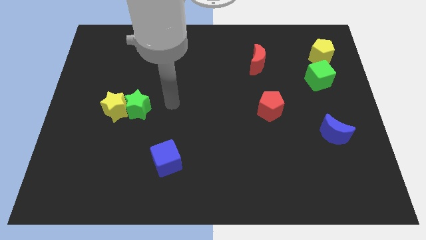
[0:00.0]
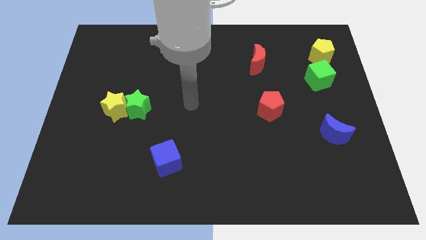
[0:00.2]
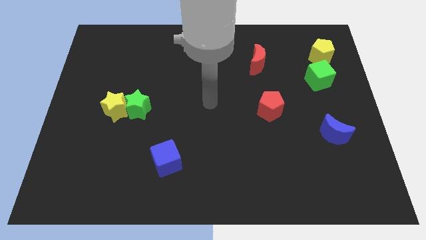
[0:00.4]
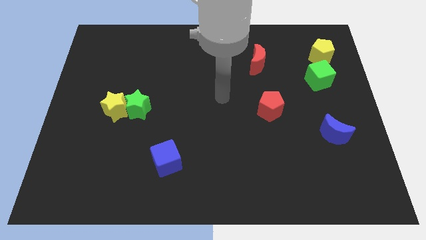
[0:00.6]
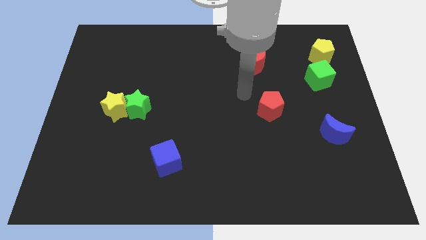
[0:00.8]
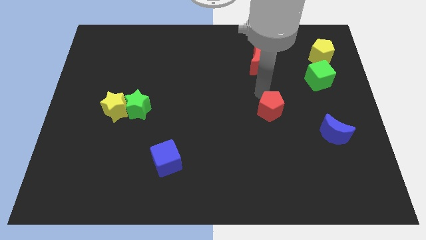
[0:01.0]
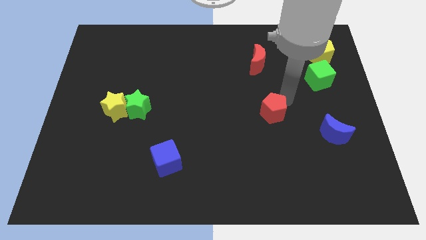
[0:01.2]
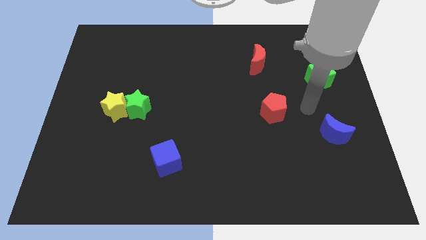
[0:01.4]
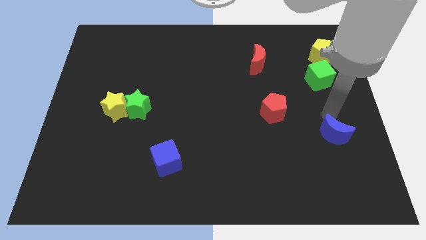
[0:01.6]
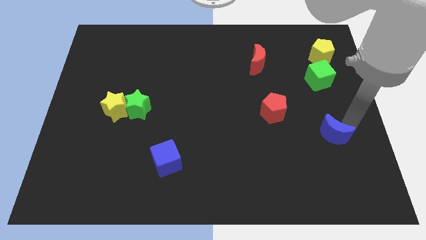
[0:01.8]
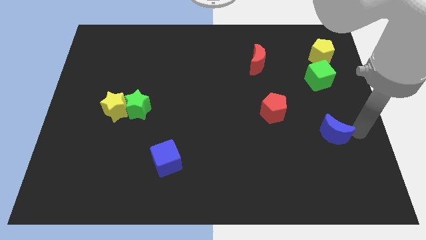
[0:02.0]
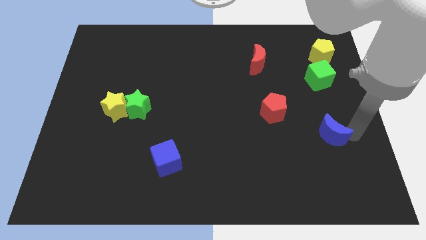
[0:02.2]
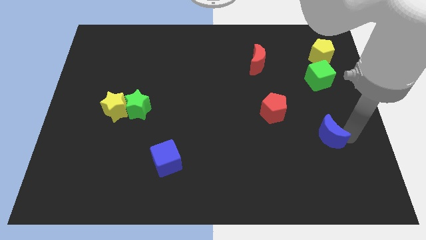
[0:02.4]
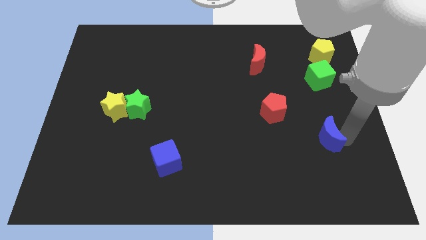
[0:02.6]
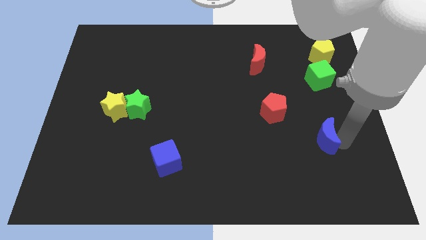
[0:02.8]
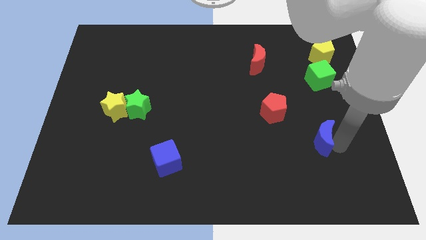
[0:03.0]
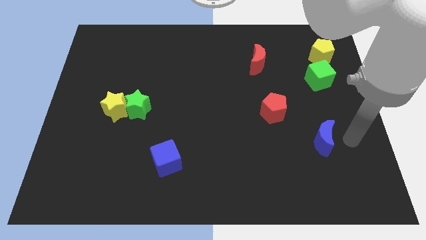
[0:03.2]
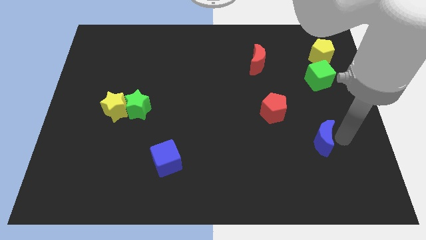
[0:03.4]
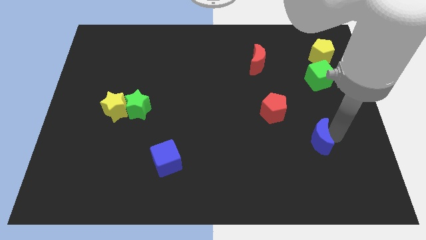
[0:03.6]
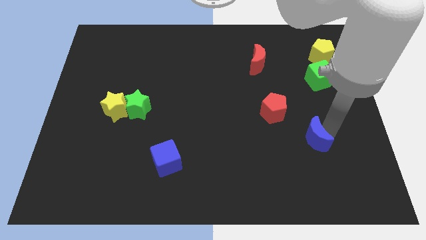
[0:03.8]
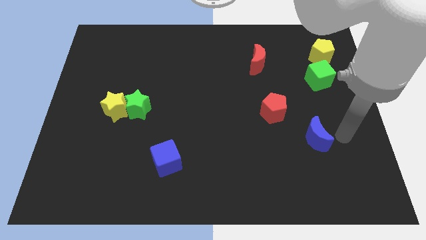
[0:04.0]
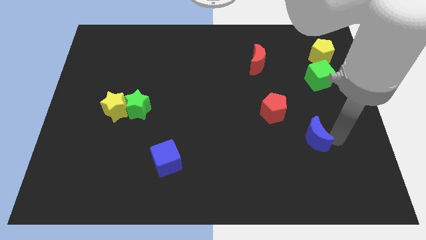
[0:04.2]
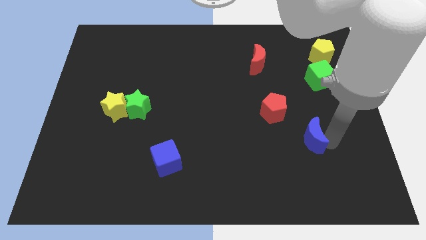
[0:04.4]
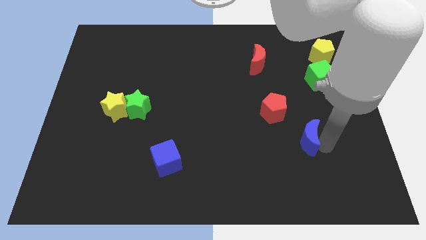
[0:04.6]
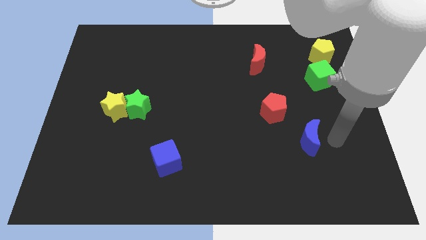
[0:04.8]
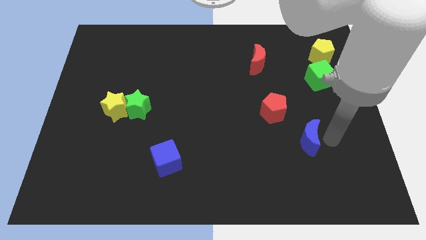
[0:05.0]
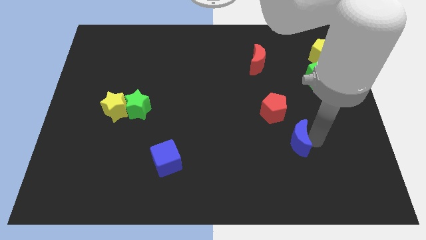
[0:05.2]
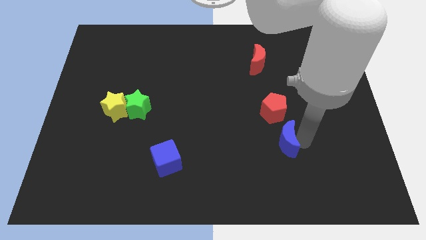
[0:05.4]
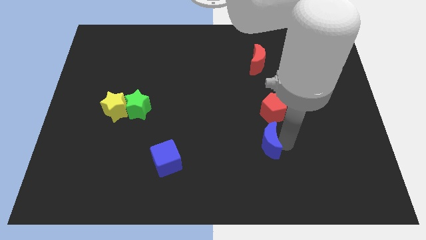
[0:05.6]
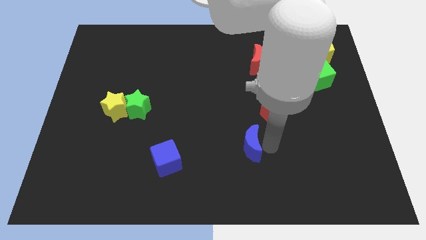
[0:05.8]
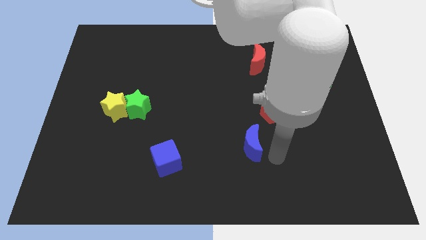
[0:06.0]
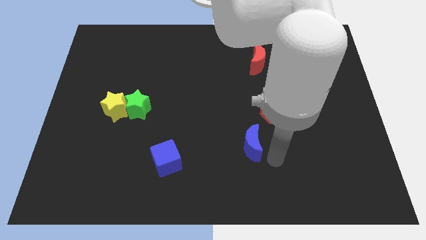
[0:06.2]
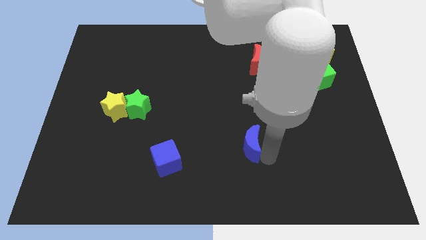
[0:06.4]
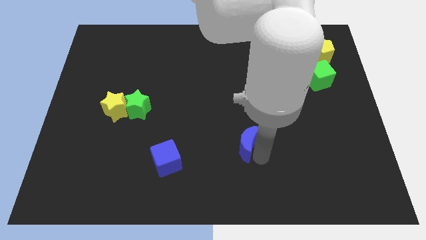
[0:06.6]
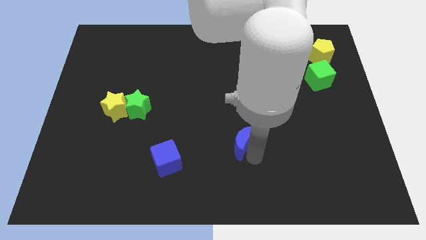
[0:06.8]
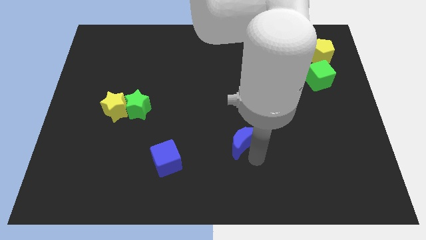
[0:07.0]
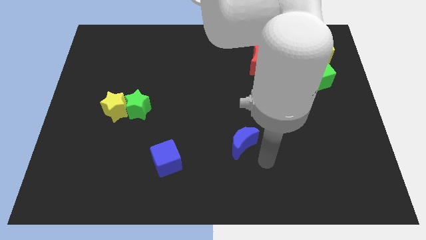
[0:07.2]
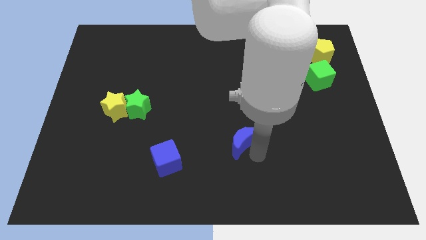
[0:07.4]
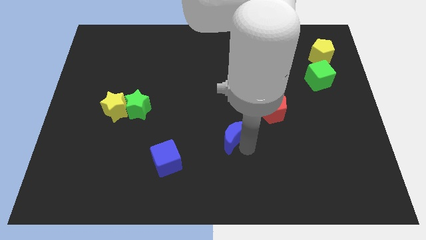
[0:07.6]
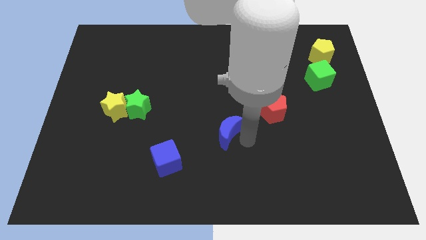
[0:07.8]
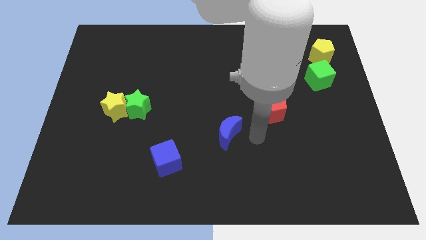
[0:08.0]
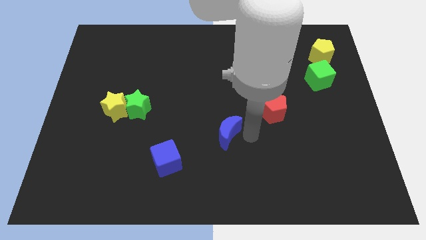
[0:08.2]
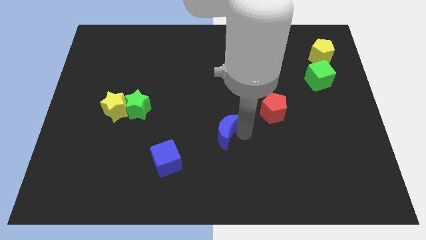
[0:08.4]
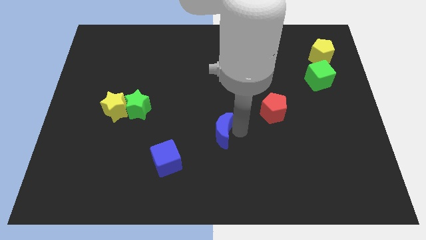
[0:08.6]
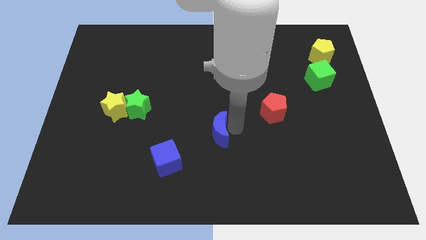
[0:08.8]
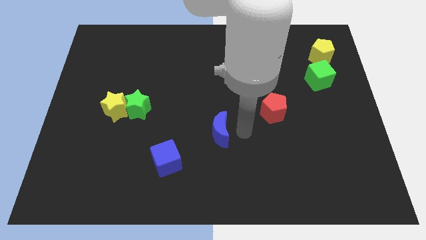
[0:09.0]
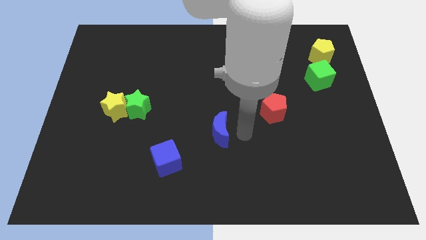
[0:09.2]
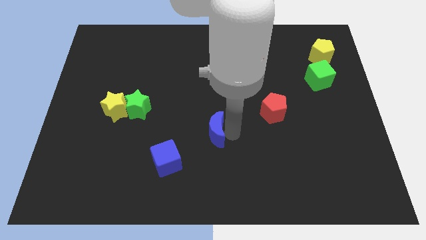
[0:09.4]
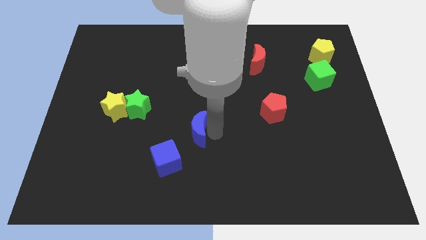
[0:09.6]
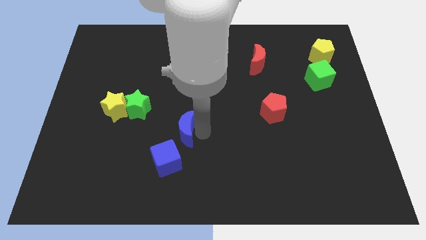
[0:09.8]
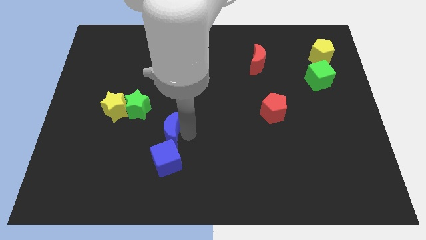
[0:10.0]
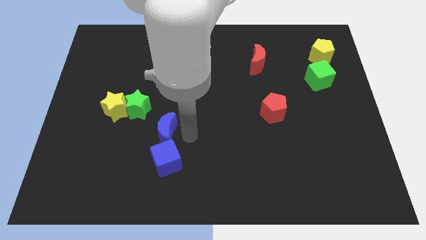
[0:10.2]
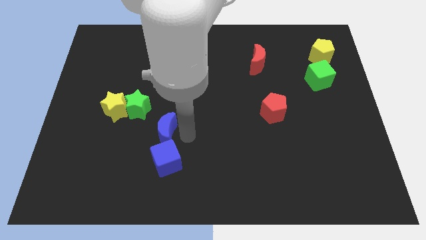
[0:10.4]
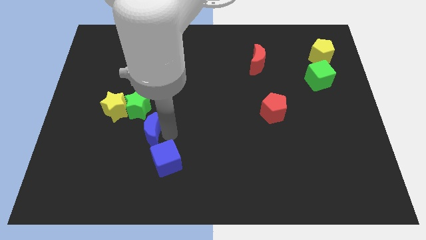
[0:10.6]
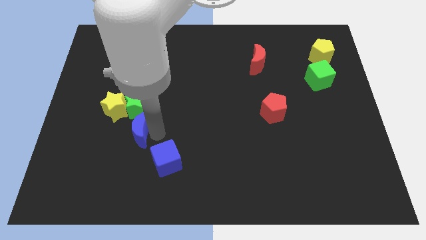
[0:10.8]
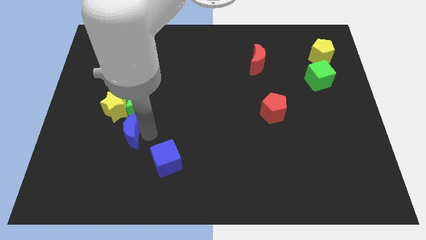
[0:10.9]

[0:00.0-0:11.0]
move the blue moon to the bottom left side of the green star

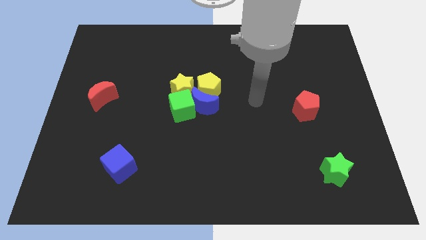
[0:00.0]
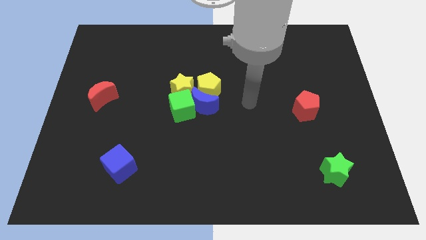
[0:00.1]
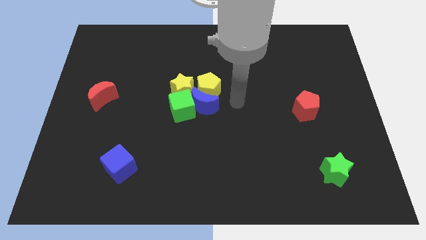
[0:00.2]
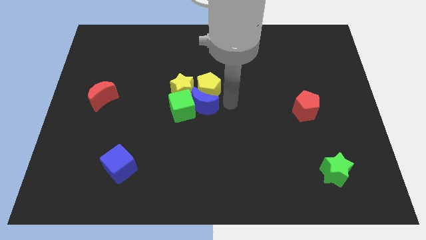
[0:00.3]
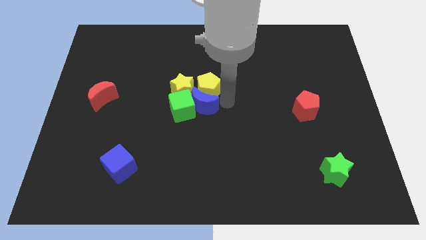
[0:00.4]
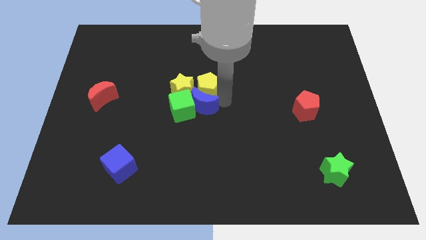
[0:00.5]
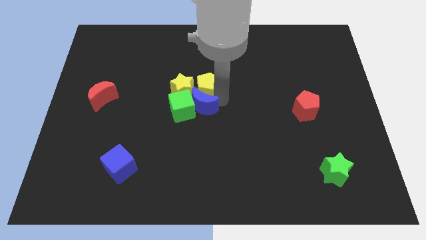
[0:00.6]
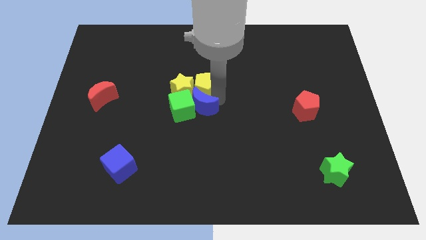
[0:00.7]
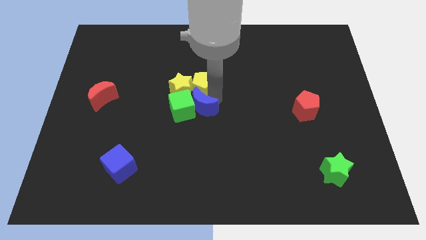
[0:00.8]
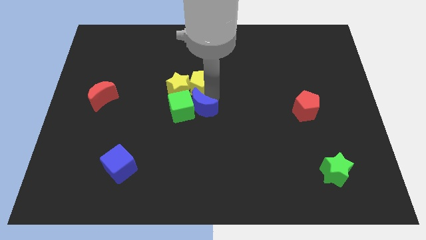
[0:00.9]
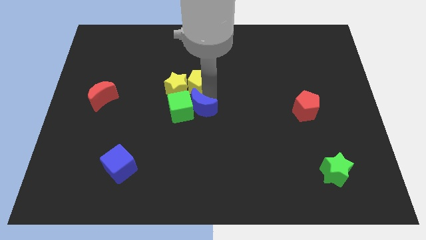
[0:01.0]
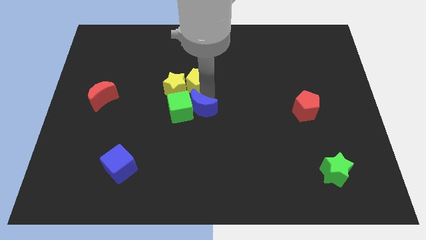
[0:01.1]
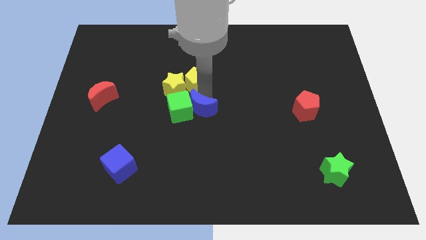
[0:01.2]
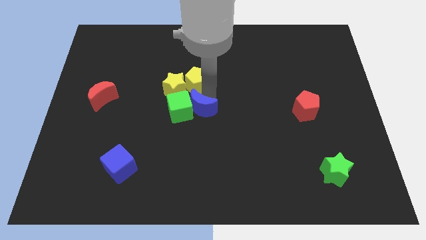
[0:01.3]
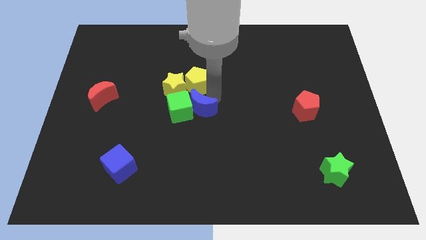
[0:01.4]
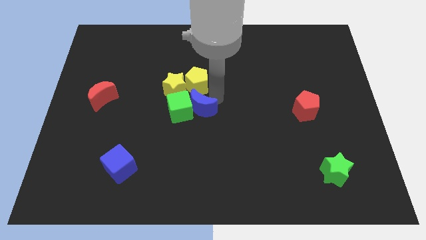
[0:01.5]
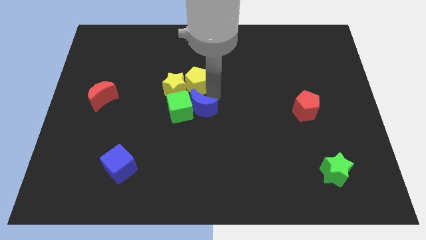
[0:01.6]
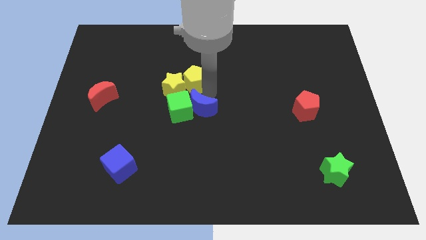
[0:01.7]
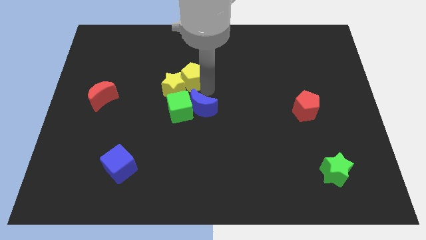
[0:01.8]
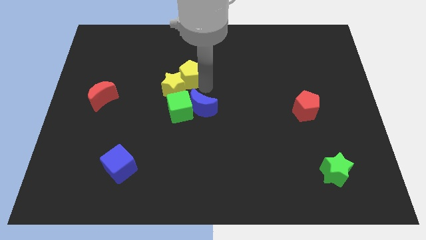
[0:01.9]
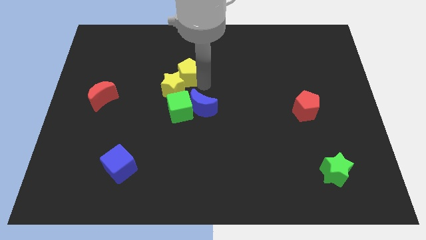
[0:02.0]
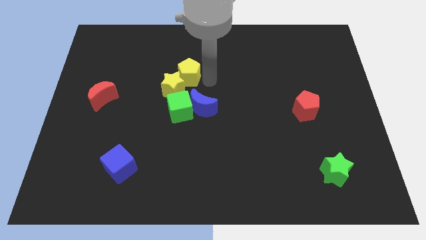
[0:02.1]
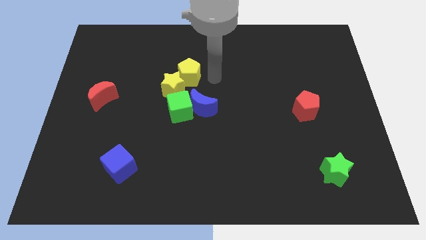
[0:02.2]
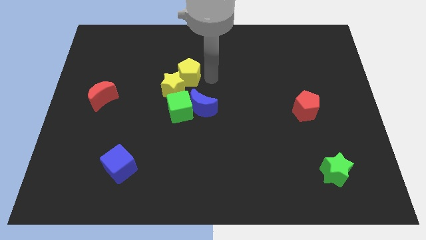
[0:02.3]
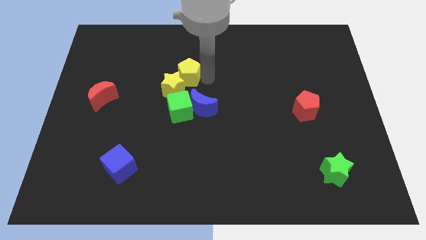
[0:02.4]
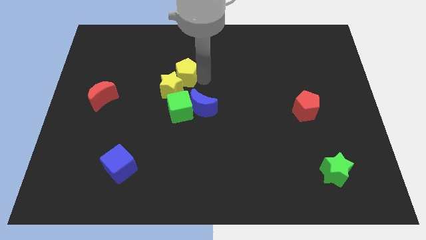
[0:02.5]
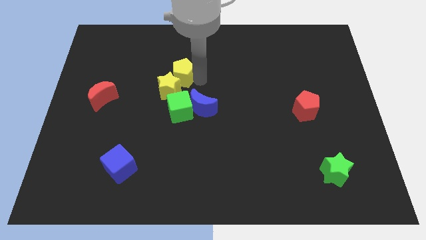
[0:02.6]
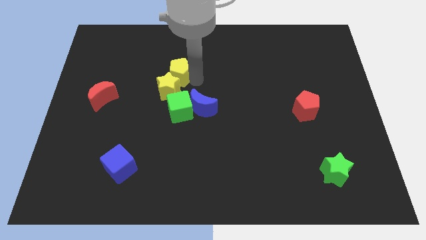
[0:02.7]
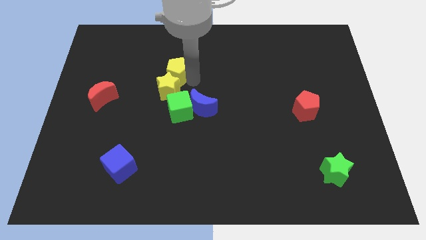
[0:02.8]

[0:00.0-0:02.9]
slide the yellow pentagon to the top left of the yellow star
